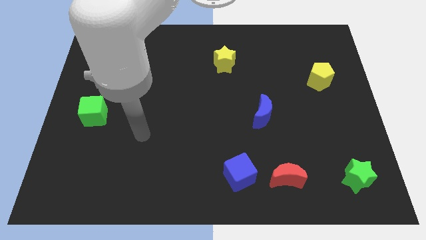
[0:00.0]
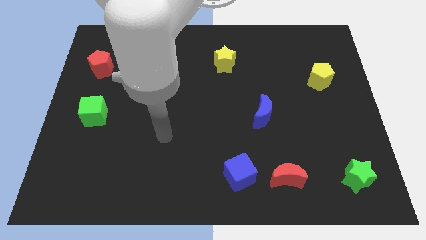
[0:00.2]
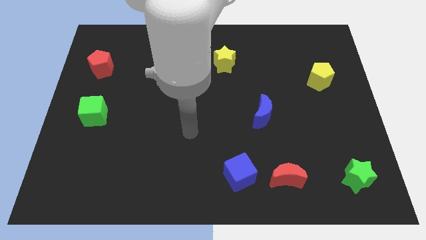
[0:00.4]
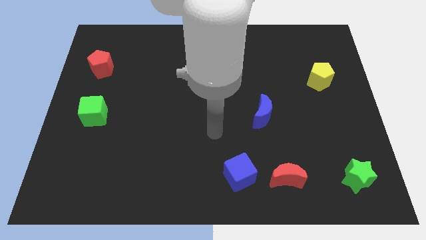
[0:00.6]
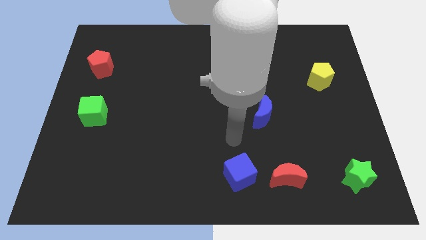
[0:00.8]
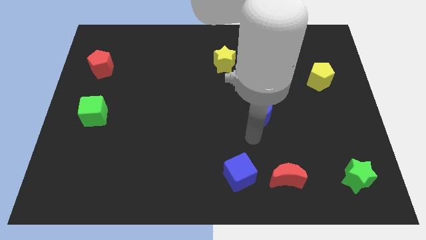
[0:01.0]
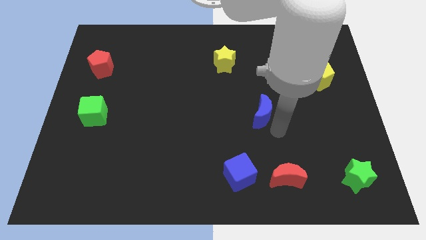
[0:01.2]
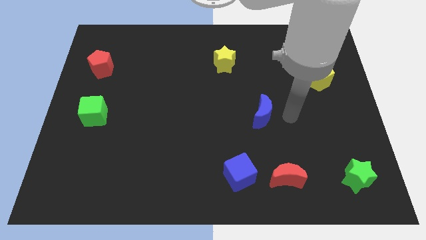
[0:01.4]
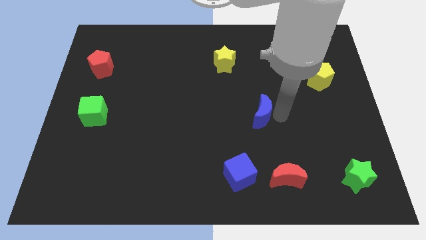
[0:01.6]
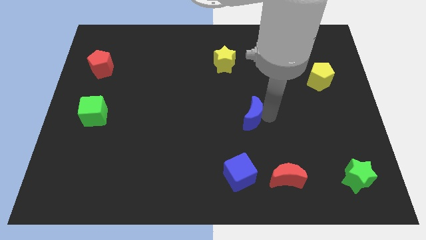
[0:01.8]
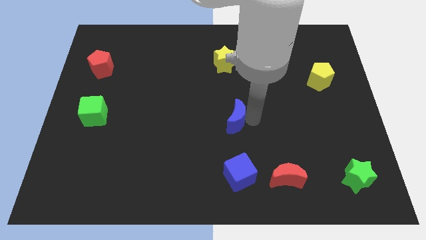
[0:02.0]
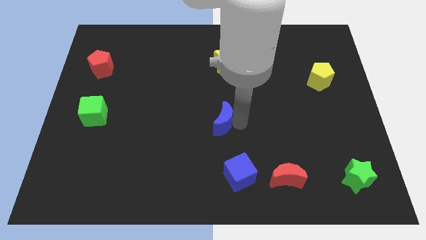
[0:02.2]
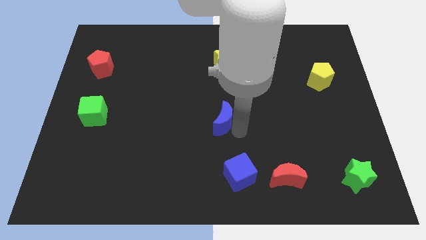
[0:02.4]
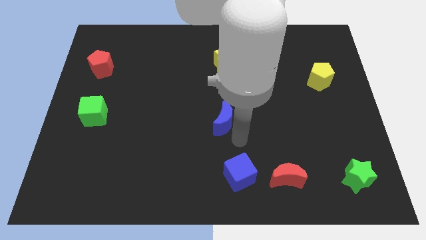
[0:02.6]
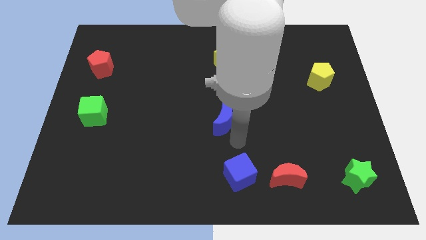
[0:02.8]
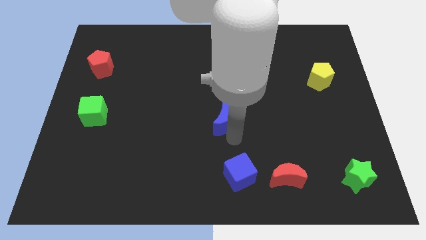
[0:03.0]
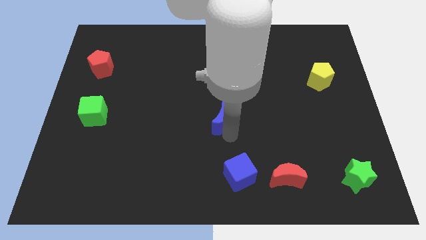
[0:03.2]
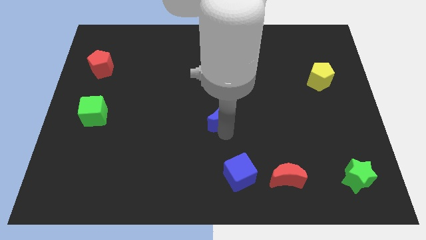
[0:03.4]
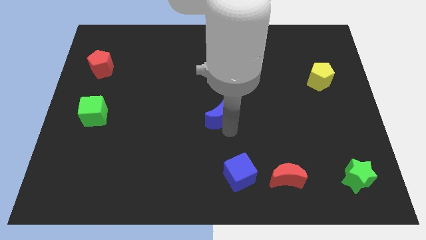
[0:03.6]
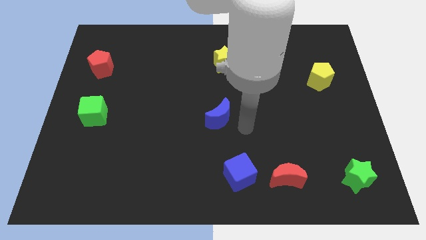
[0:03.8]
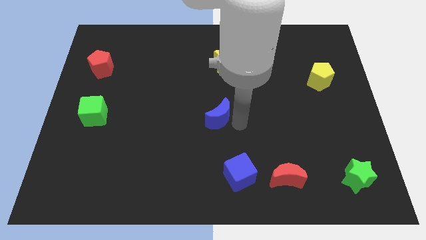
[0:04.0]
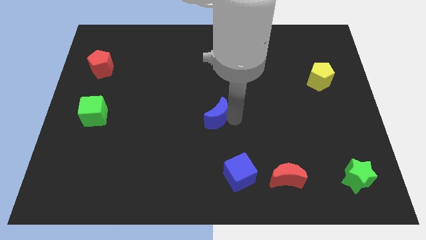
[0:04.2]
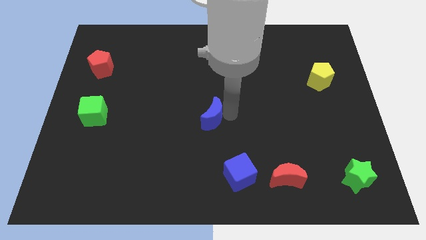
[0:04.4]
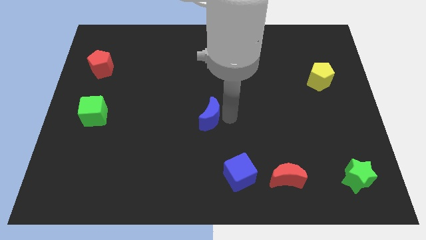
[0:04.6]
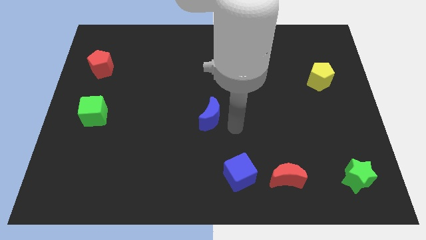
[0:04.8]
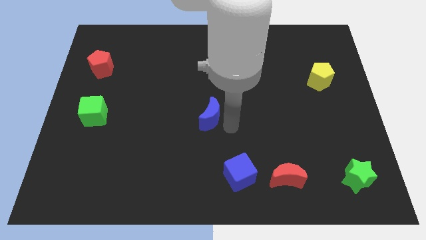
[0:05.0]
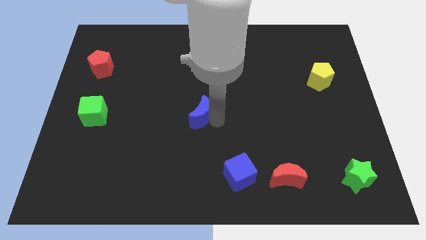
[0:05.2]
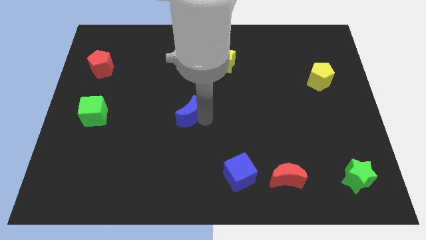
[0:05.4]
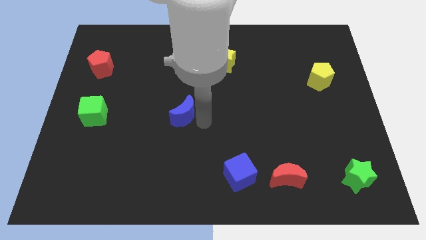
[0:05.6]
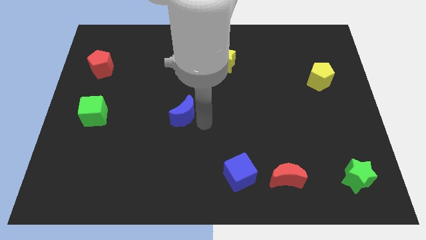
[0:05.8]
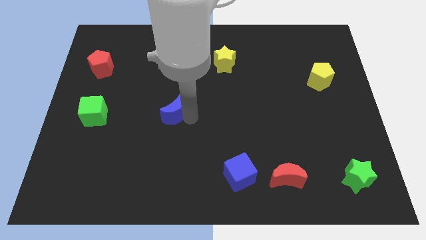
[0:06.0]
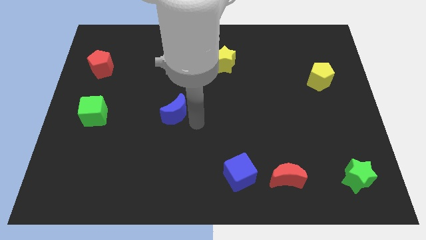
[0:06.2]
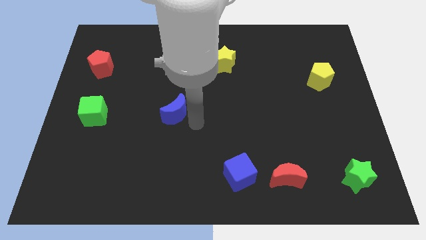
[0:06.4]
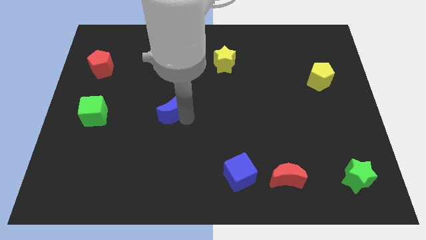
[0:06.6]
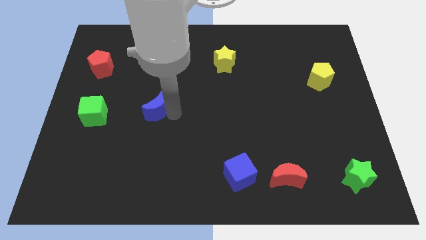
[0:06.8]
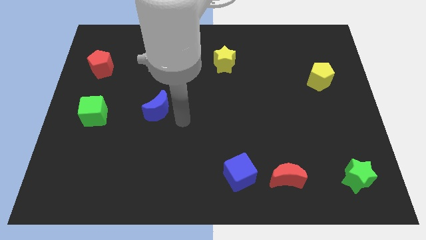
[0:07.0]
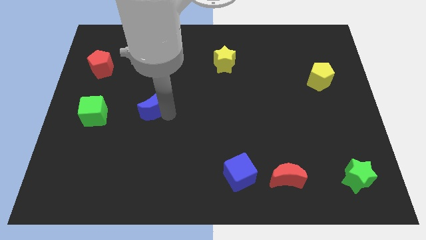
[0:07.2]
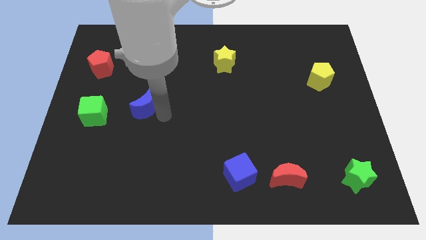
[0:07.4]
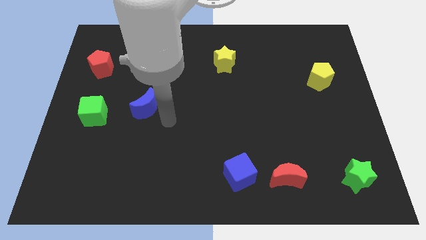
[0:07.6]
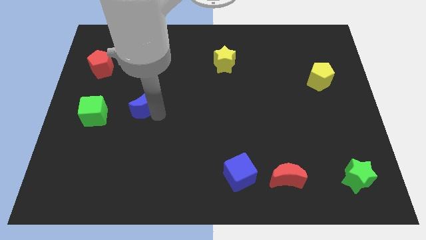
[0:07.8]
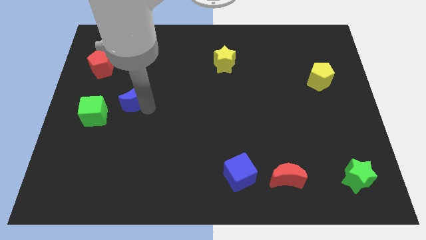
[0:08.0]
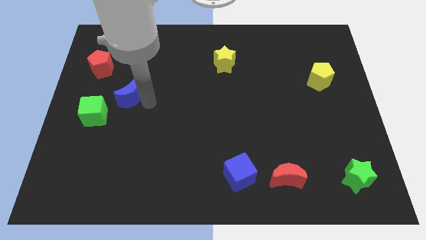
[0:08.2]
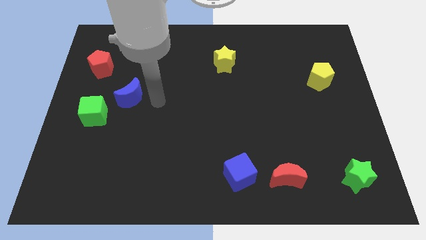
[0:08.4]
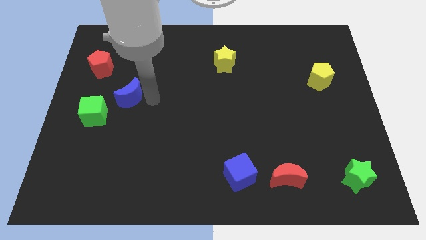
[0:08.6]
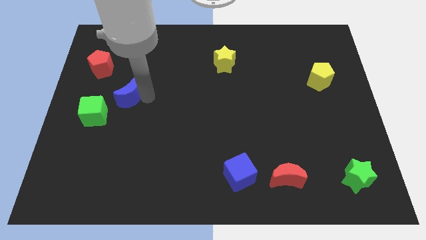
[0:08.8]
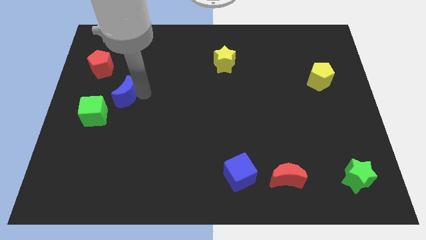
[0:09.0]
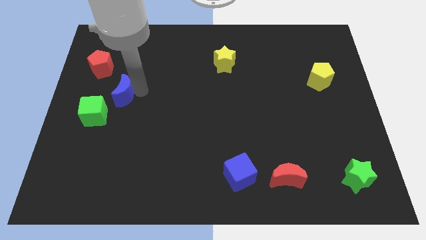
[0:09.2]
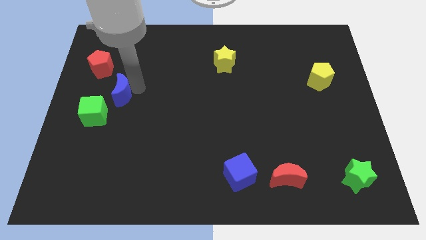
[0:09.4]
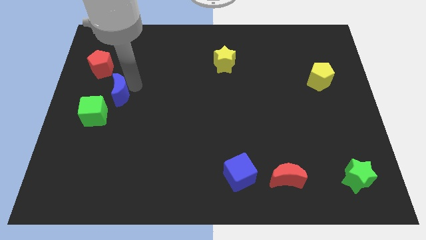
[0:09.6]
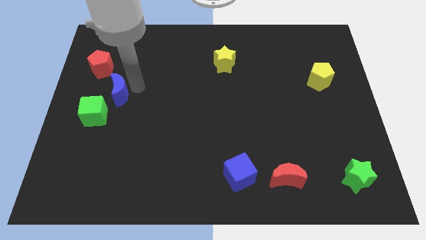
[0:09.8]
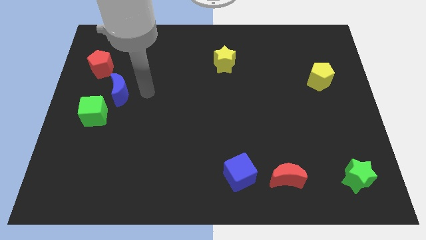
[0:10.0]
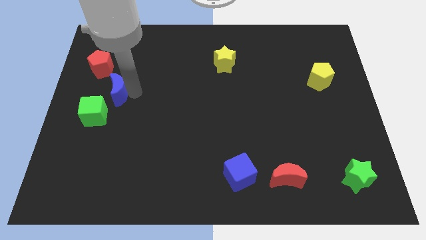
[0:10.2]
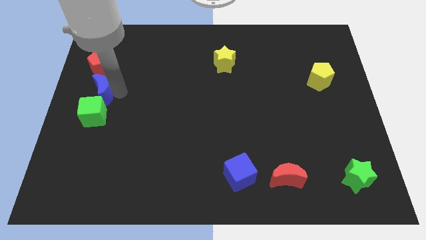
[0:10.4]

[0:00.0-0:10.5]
push the blue moon to the left side

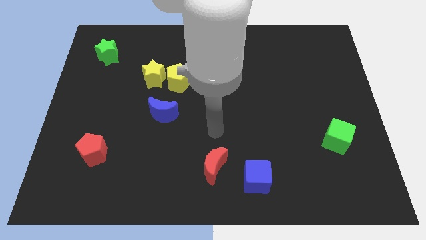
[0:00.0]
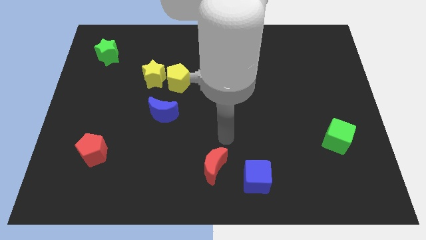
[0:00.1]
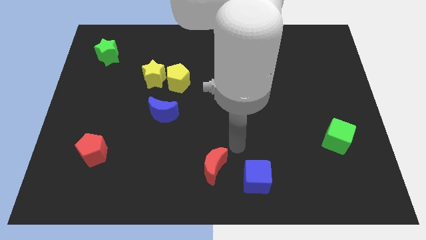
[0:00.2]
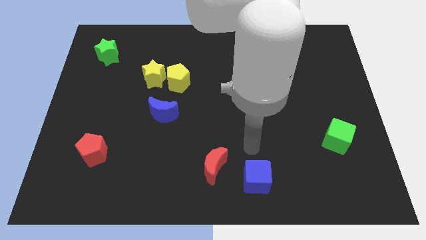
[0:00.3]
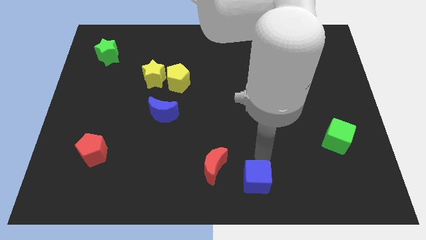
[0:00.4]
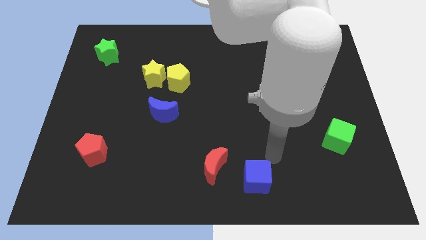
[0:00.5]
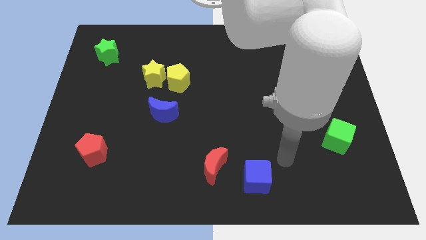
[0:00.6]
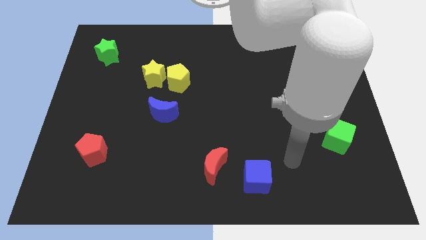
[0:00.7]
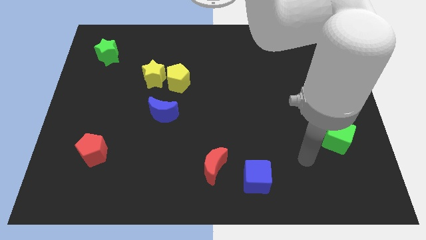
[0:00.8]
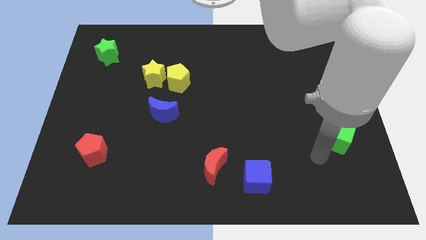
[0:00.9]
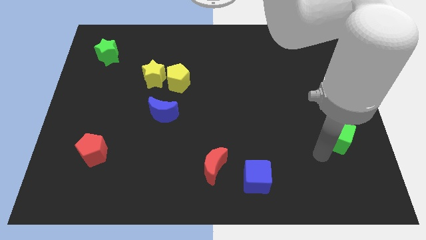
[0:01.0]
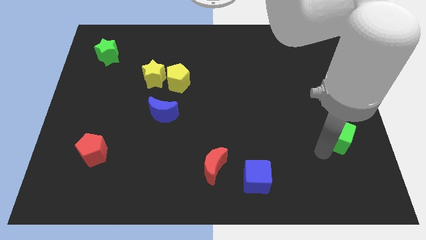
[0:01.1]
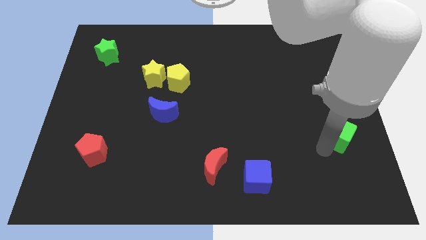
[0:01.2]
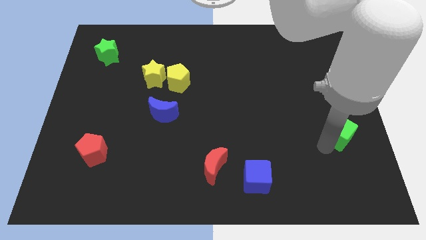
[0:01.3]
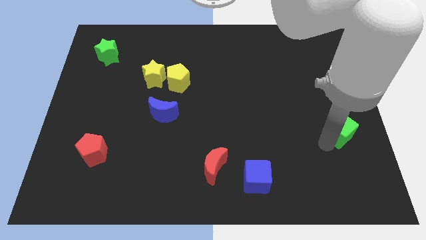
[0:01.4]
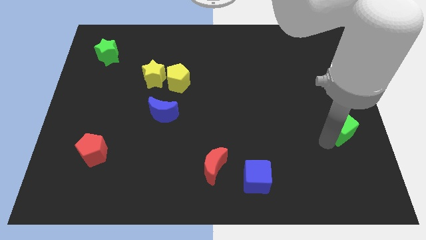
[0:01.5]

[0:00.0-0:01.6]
move the green cube to the center right
